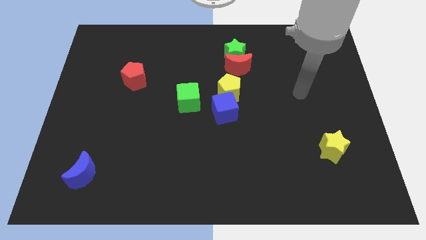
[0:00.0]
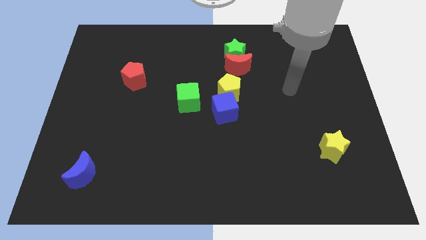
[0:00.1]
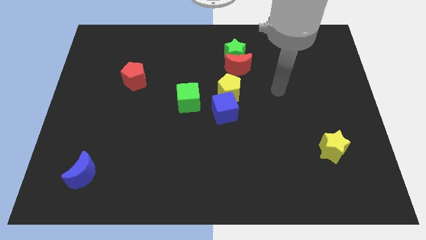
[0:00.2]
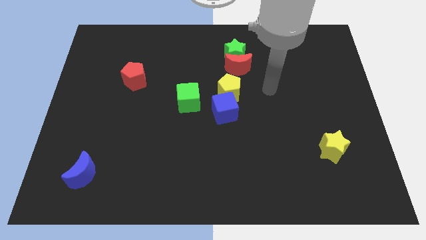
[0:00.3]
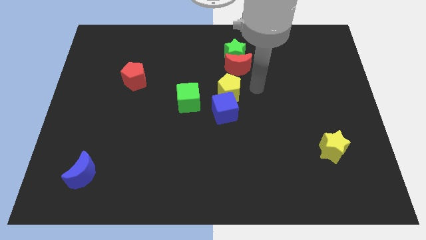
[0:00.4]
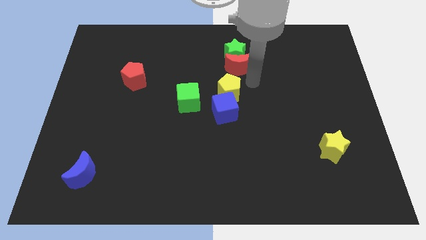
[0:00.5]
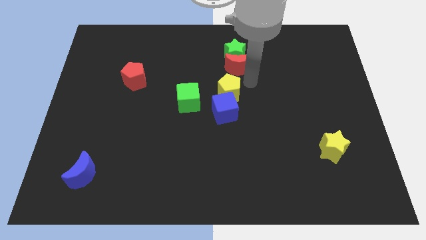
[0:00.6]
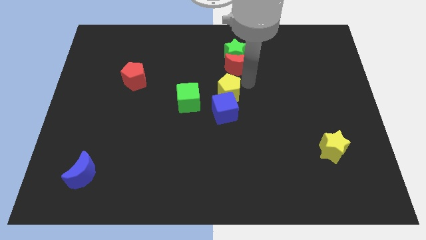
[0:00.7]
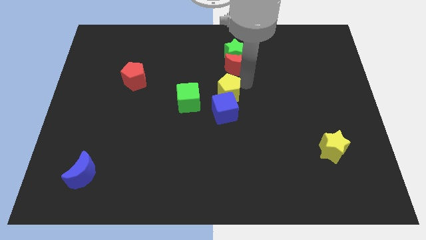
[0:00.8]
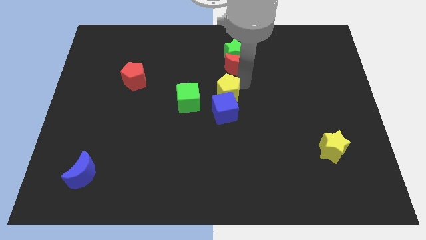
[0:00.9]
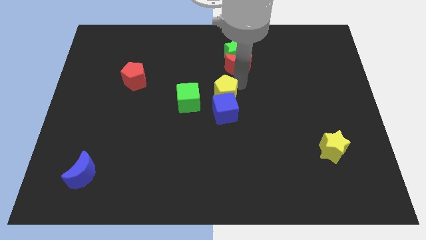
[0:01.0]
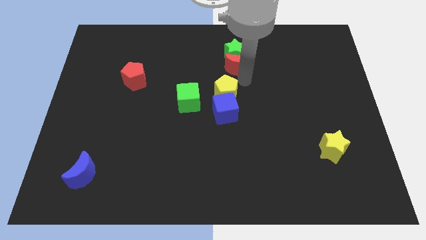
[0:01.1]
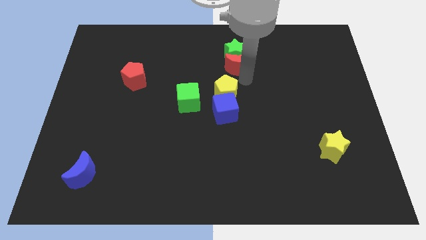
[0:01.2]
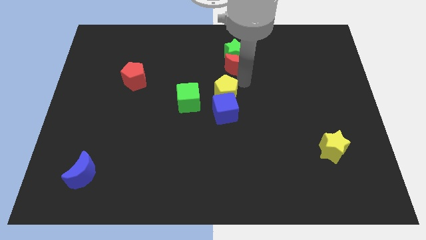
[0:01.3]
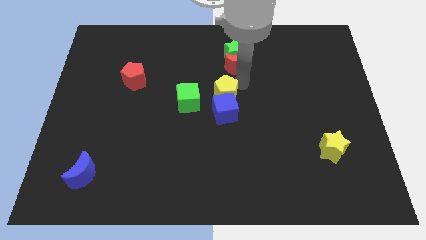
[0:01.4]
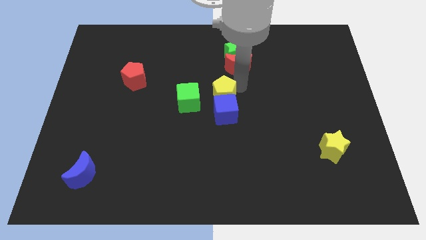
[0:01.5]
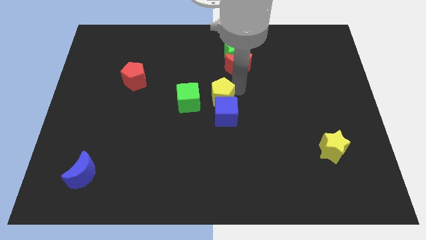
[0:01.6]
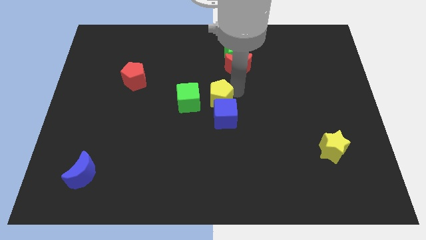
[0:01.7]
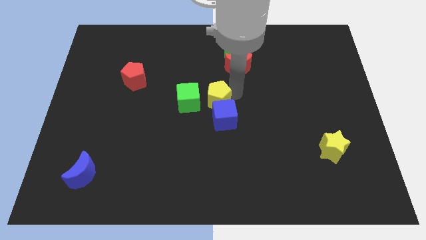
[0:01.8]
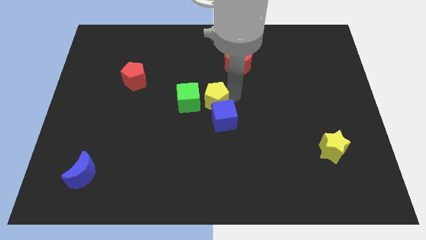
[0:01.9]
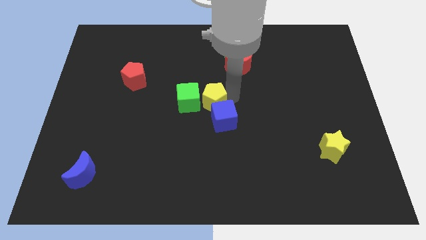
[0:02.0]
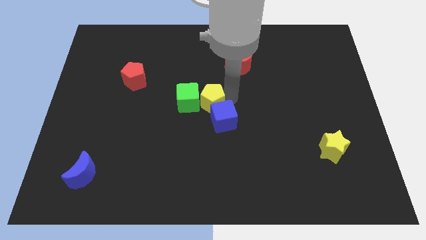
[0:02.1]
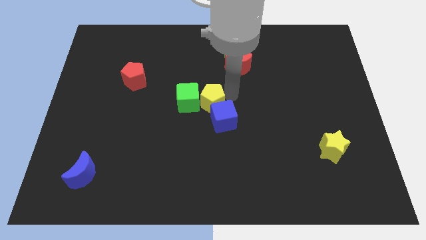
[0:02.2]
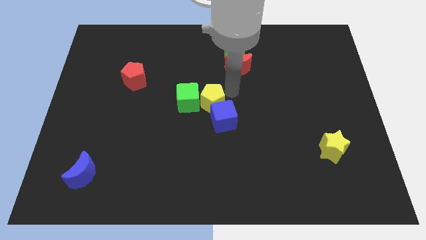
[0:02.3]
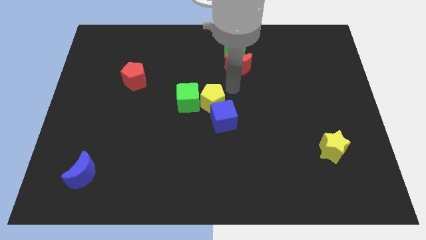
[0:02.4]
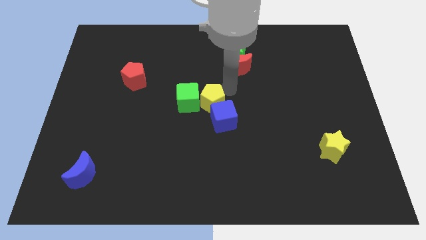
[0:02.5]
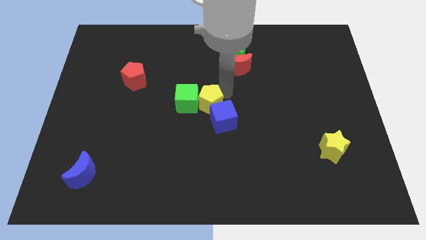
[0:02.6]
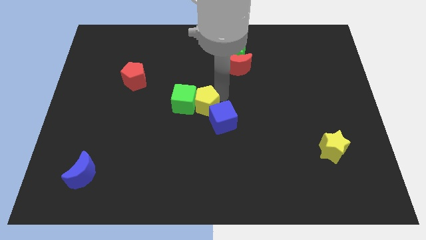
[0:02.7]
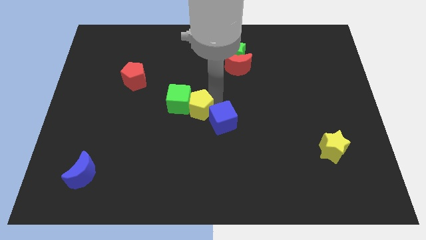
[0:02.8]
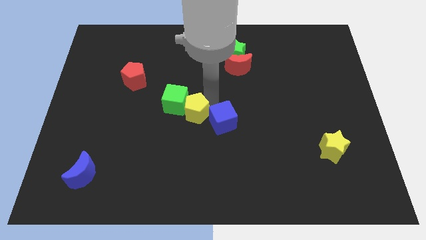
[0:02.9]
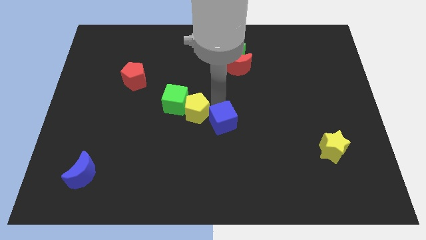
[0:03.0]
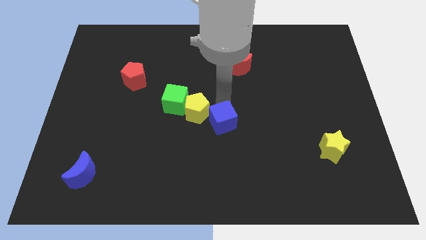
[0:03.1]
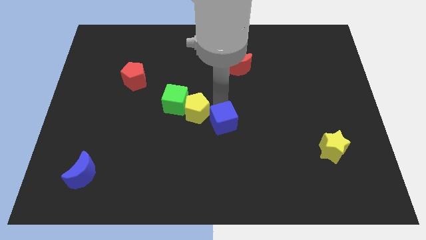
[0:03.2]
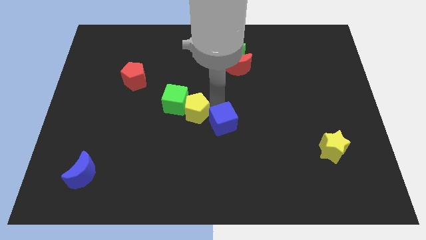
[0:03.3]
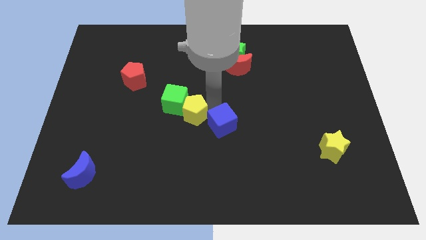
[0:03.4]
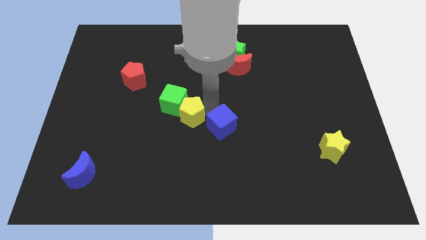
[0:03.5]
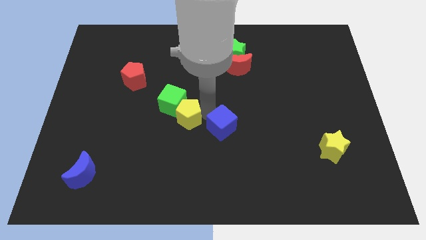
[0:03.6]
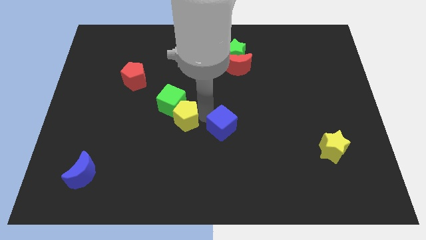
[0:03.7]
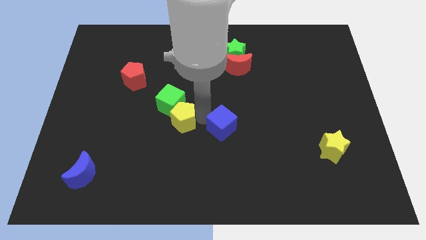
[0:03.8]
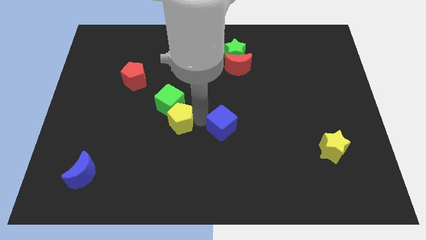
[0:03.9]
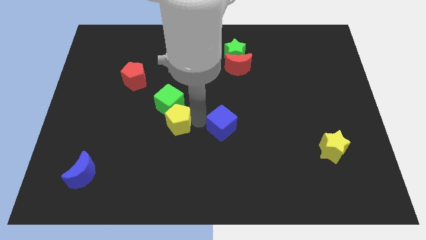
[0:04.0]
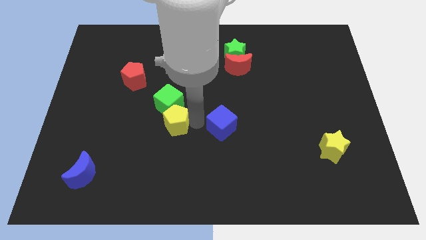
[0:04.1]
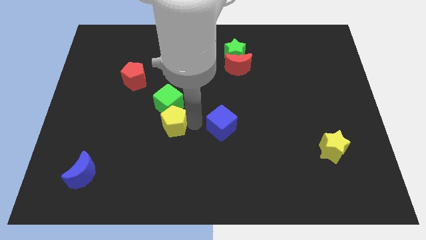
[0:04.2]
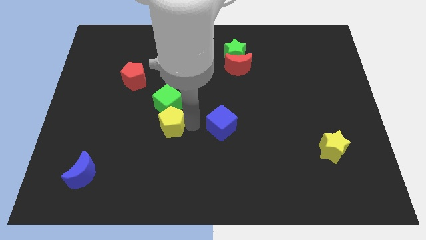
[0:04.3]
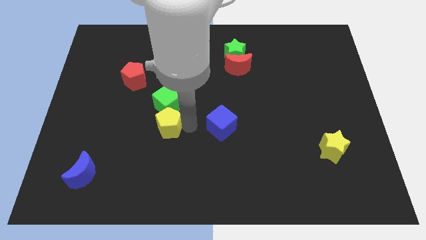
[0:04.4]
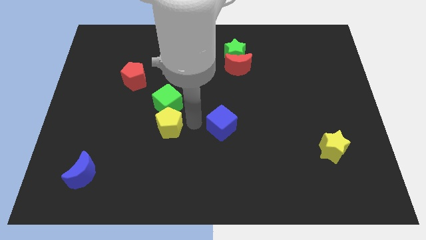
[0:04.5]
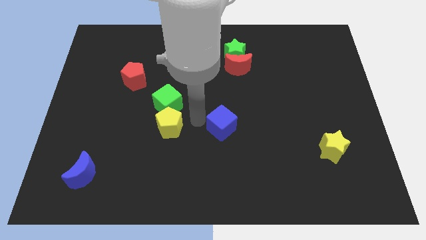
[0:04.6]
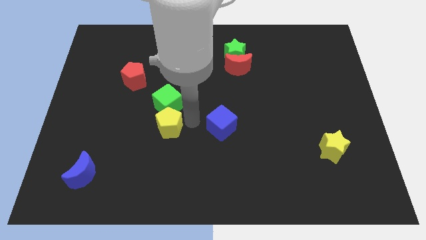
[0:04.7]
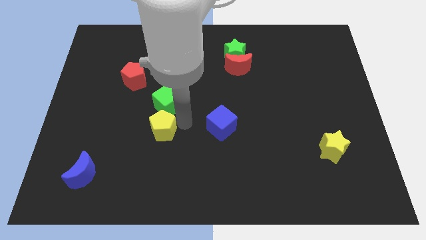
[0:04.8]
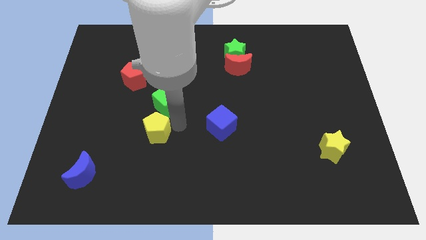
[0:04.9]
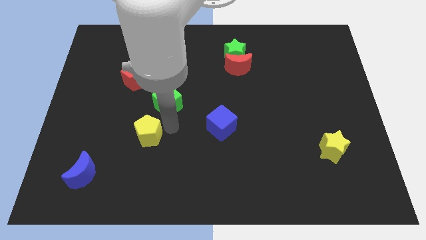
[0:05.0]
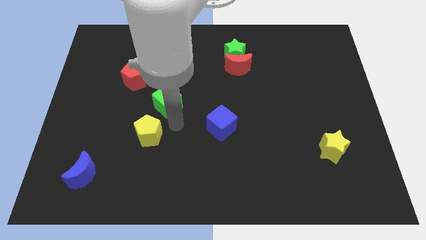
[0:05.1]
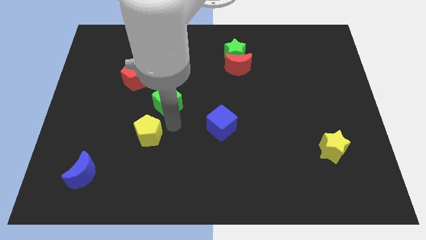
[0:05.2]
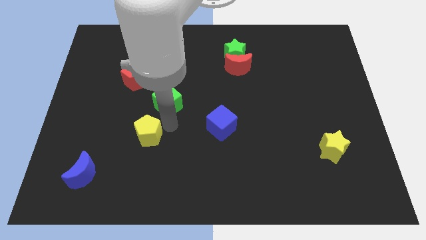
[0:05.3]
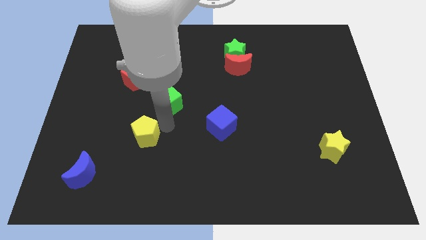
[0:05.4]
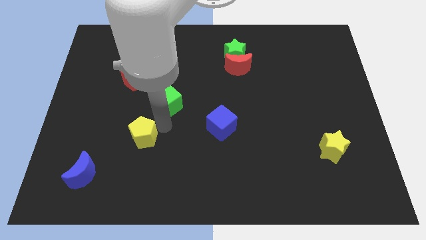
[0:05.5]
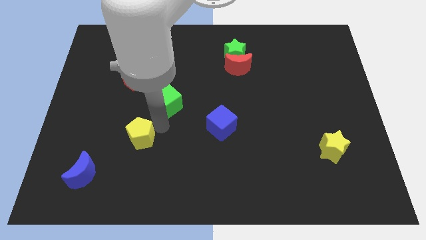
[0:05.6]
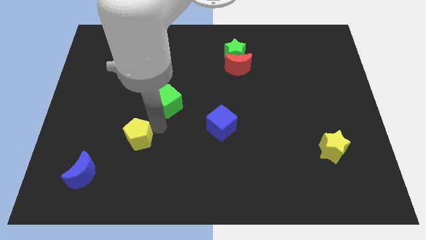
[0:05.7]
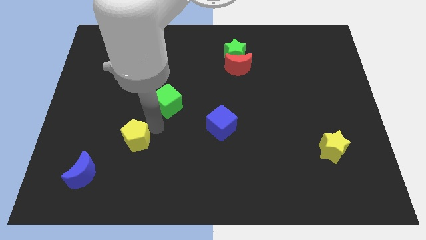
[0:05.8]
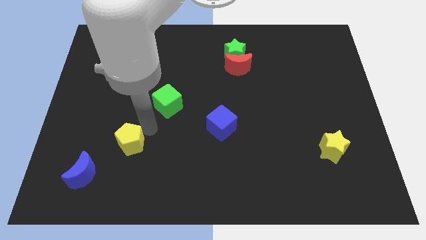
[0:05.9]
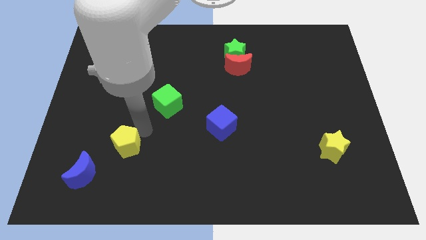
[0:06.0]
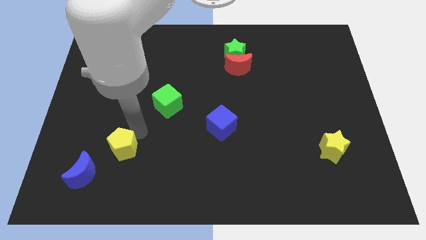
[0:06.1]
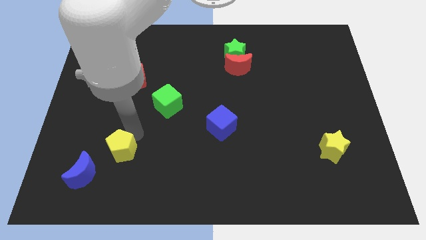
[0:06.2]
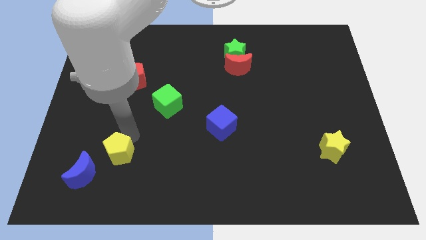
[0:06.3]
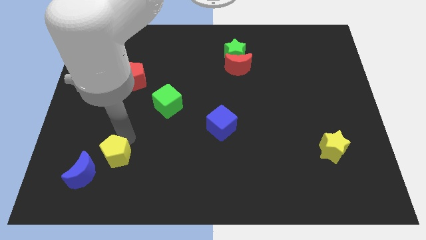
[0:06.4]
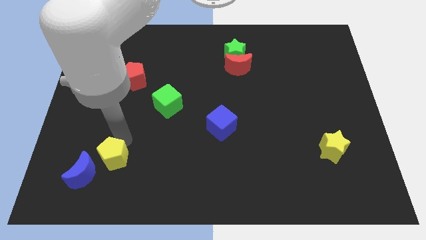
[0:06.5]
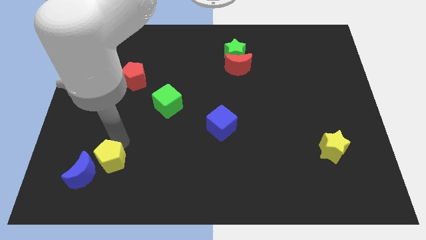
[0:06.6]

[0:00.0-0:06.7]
push the yellow pentagon close to the blue moon
